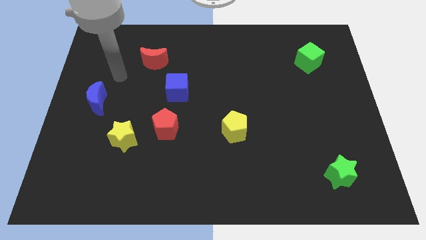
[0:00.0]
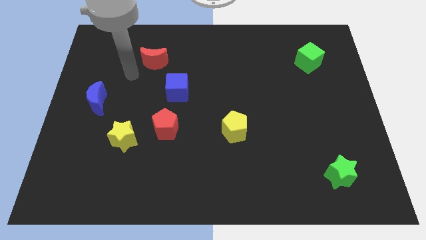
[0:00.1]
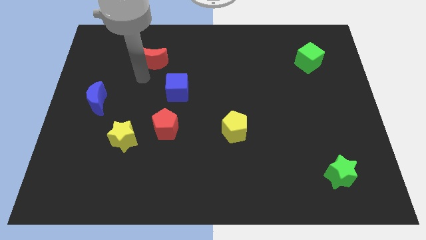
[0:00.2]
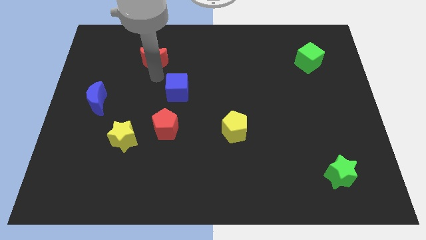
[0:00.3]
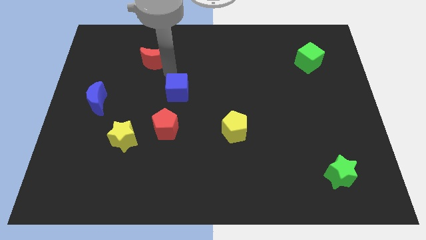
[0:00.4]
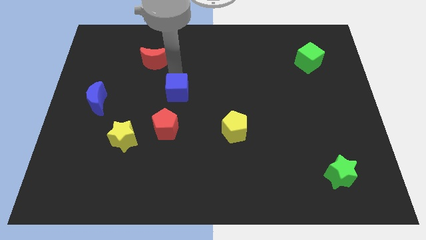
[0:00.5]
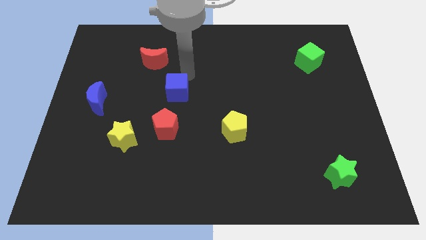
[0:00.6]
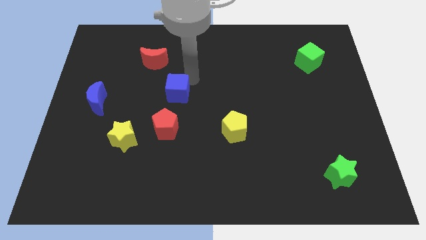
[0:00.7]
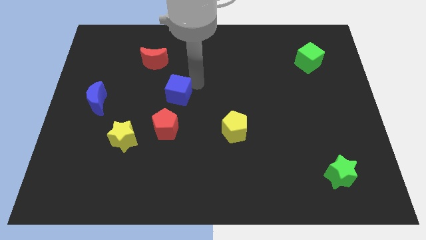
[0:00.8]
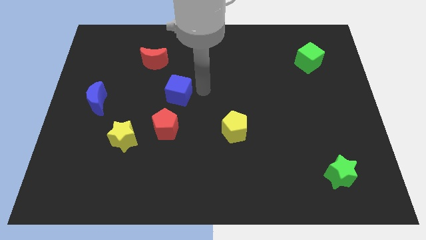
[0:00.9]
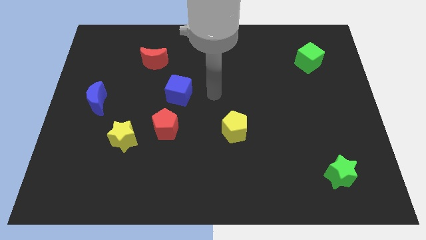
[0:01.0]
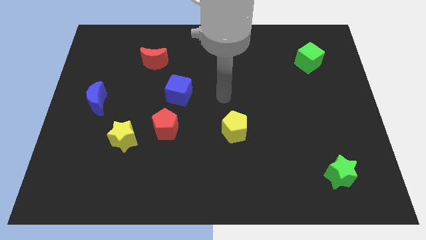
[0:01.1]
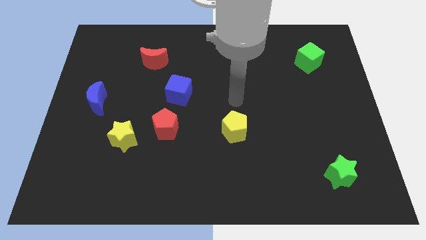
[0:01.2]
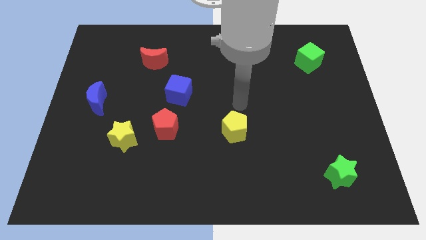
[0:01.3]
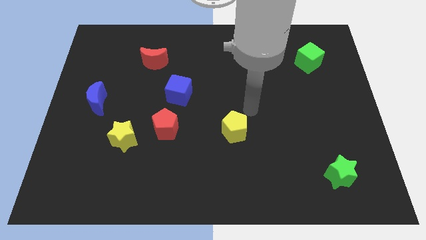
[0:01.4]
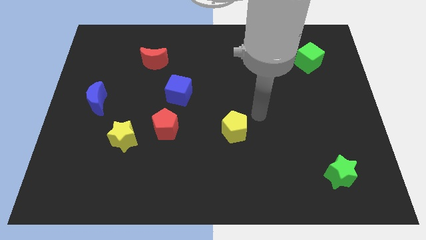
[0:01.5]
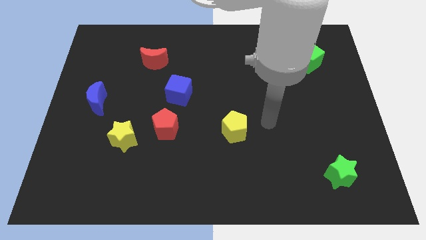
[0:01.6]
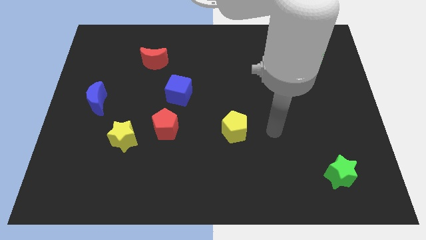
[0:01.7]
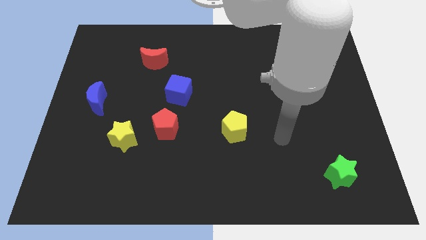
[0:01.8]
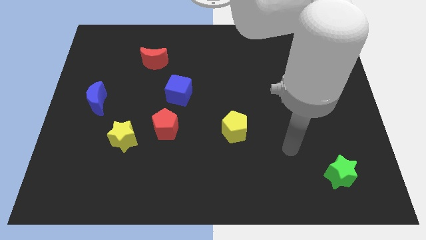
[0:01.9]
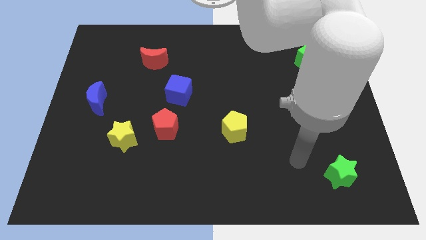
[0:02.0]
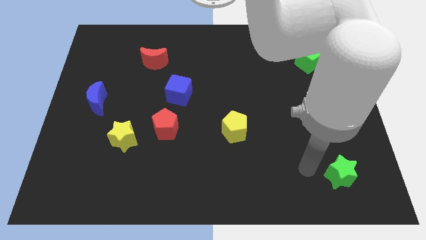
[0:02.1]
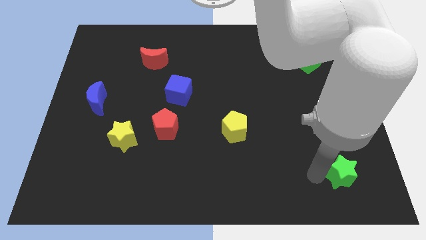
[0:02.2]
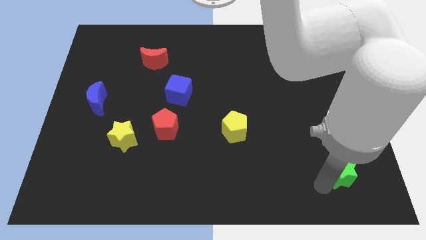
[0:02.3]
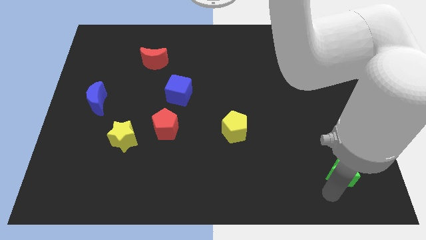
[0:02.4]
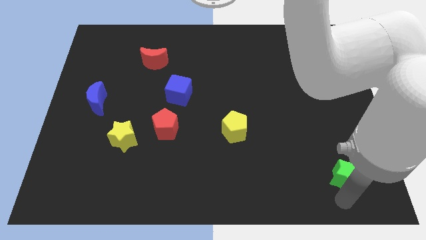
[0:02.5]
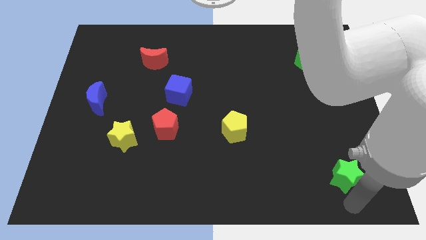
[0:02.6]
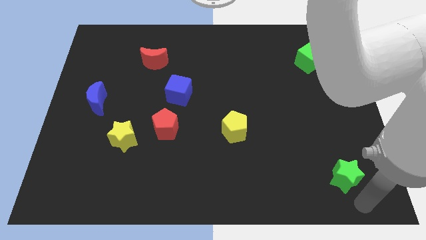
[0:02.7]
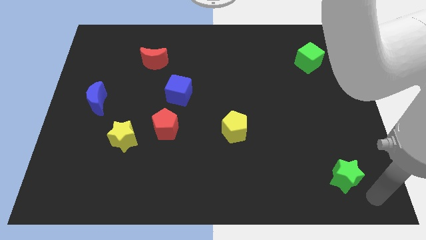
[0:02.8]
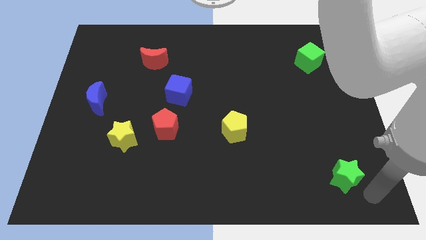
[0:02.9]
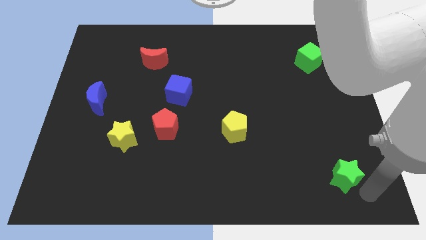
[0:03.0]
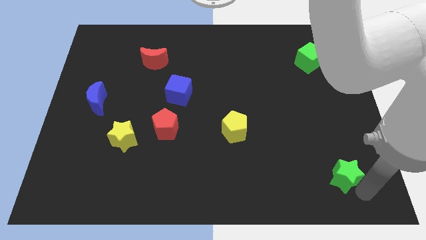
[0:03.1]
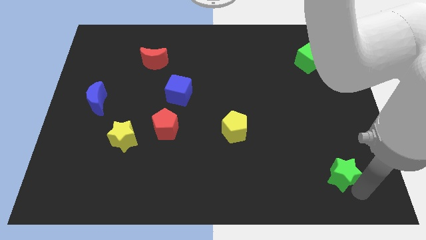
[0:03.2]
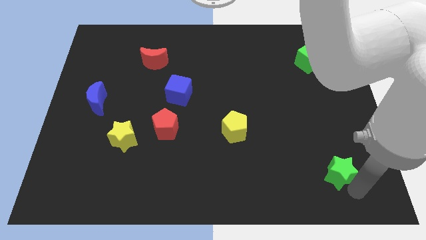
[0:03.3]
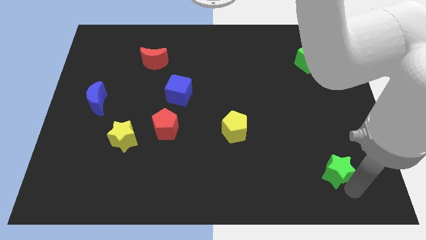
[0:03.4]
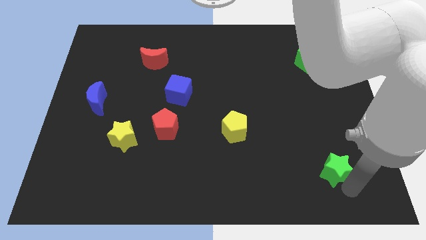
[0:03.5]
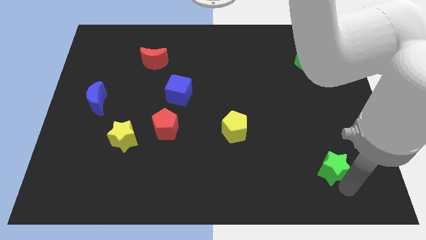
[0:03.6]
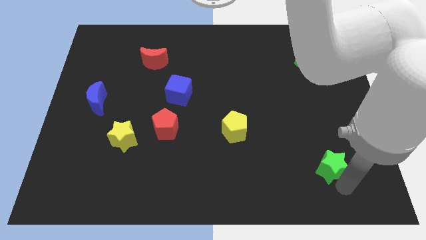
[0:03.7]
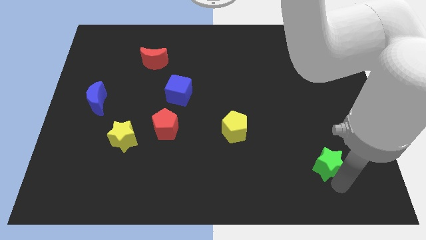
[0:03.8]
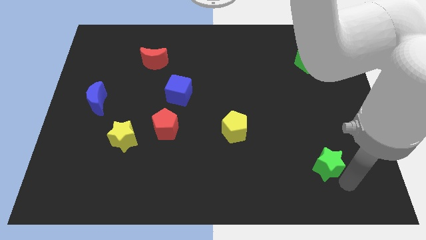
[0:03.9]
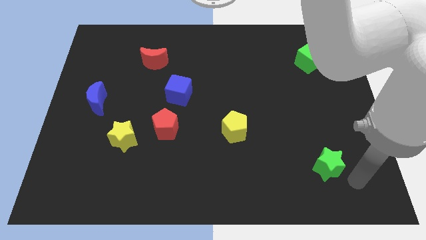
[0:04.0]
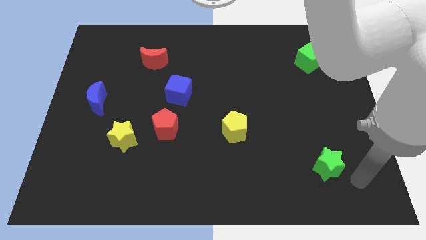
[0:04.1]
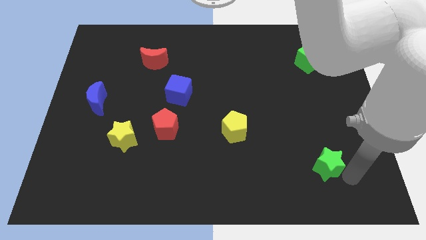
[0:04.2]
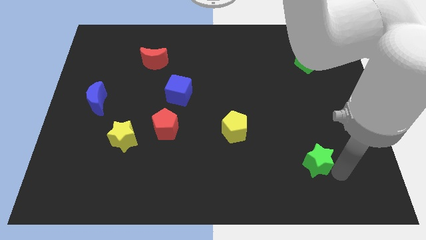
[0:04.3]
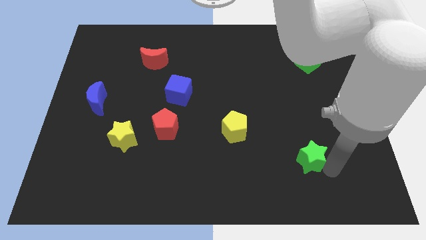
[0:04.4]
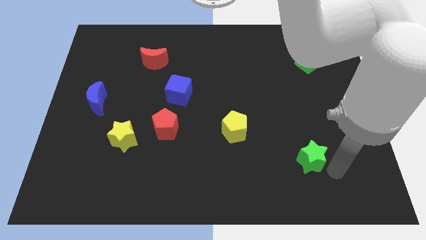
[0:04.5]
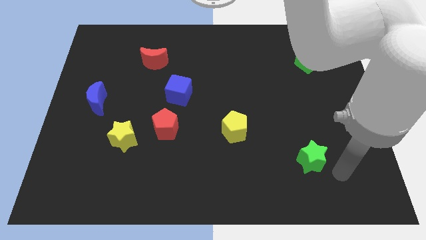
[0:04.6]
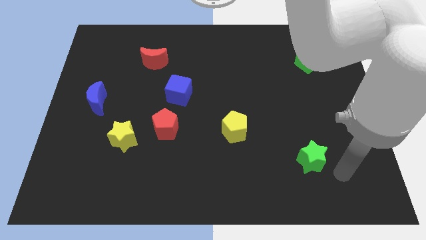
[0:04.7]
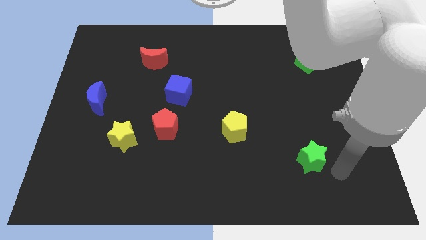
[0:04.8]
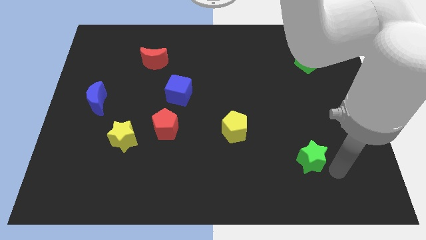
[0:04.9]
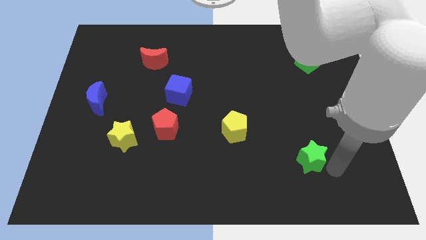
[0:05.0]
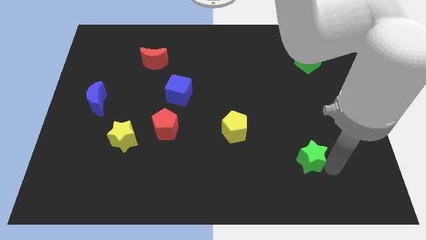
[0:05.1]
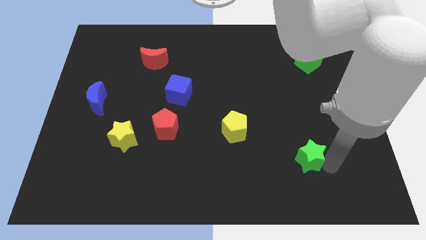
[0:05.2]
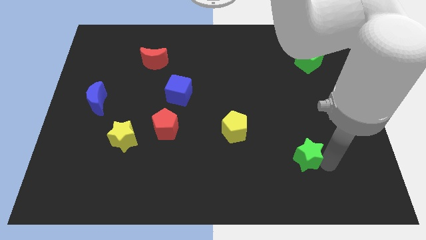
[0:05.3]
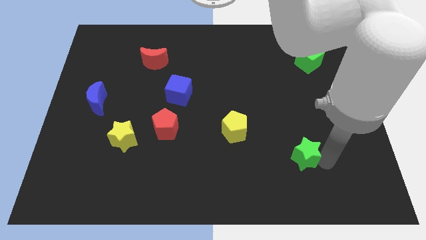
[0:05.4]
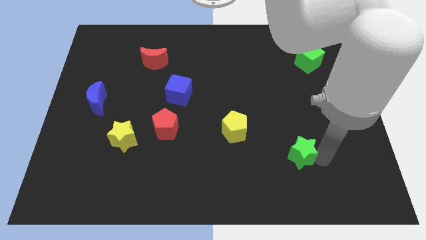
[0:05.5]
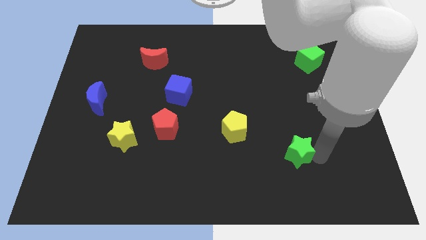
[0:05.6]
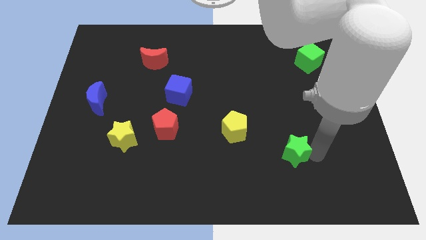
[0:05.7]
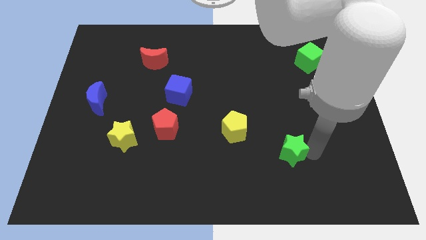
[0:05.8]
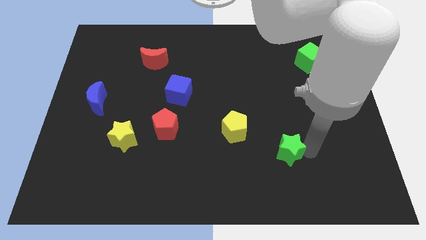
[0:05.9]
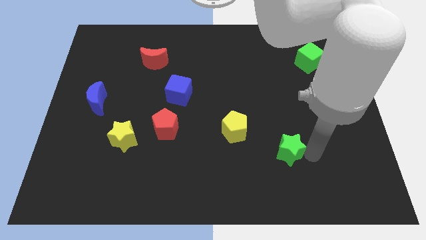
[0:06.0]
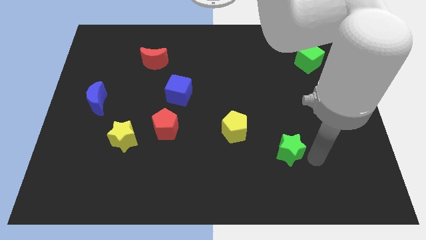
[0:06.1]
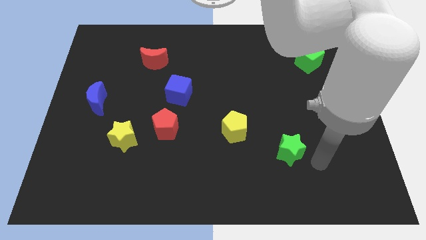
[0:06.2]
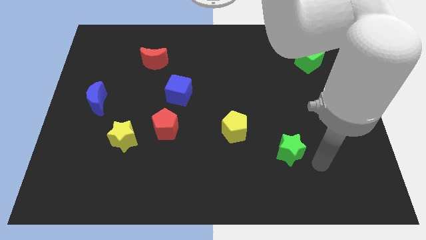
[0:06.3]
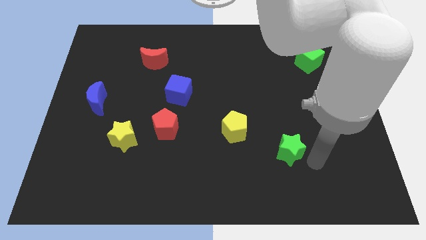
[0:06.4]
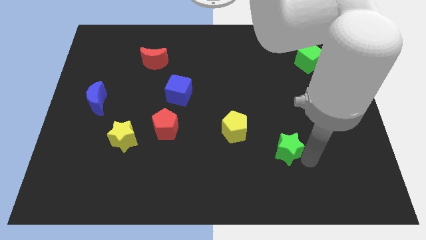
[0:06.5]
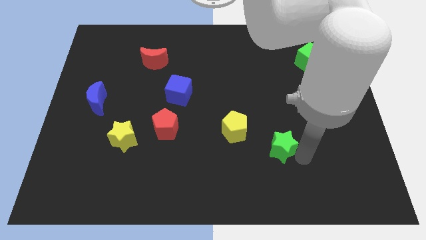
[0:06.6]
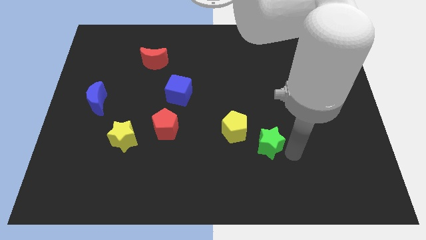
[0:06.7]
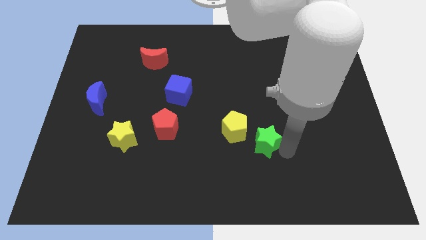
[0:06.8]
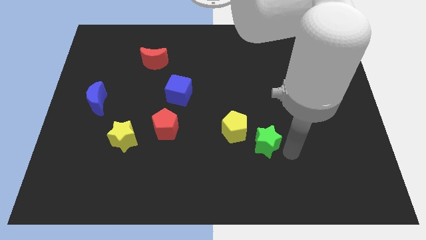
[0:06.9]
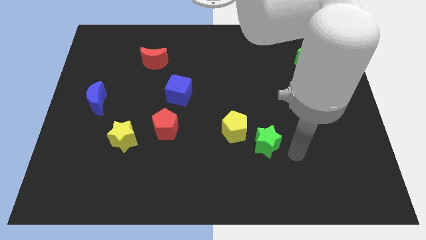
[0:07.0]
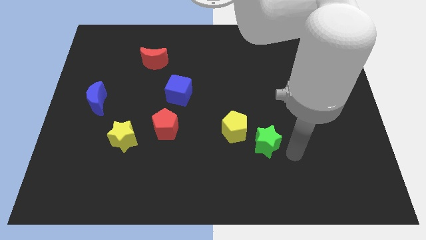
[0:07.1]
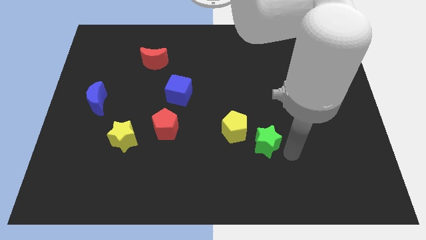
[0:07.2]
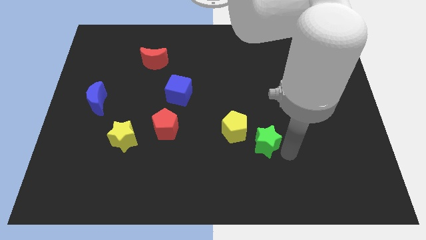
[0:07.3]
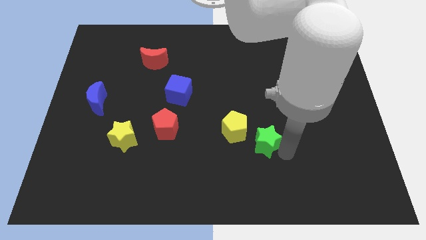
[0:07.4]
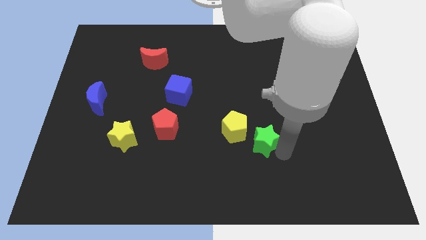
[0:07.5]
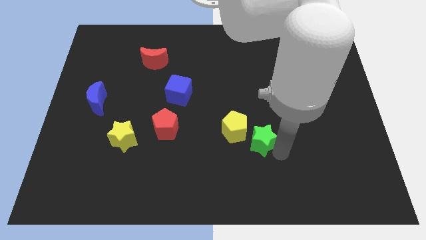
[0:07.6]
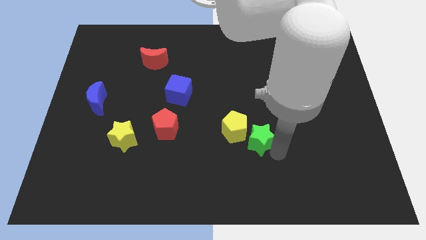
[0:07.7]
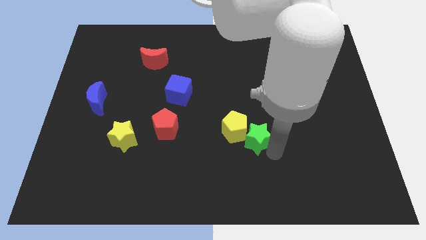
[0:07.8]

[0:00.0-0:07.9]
push the green star to the yellow pentagon
